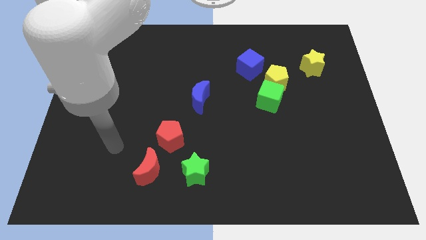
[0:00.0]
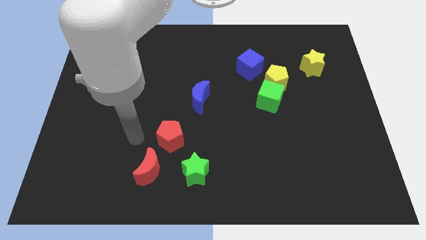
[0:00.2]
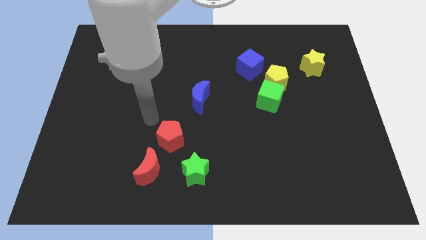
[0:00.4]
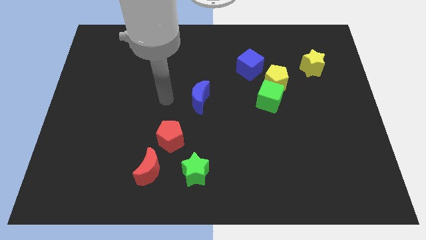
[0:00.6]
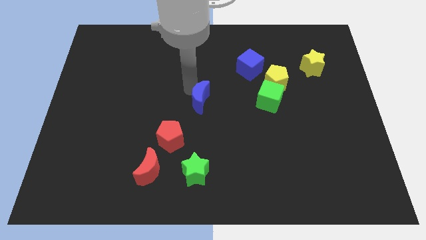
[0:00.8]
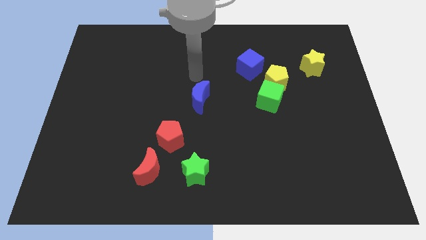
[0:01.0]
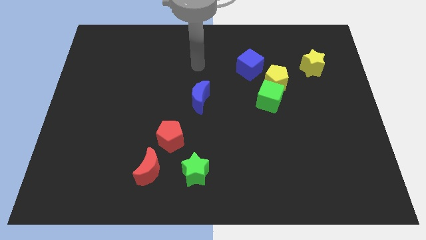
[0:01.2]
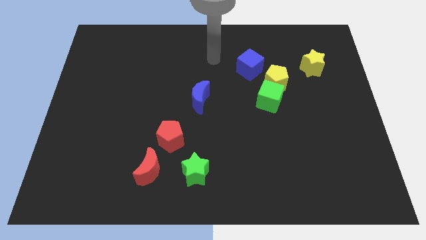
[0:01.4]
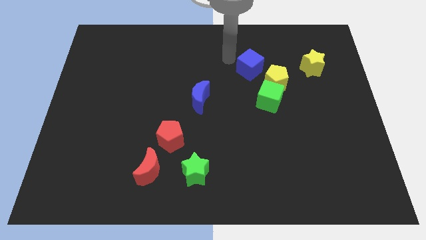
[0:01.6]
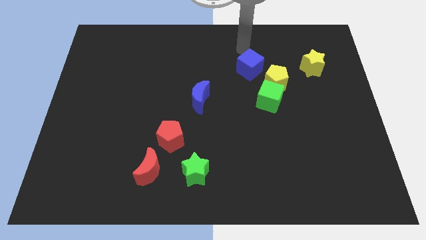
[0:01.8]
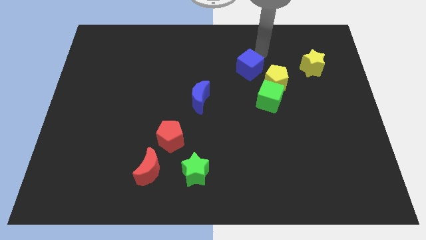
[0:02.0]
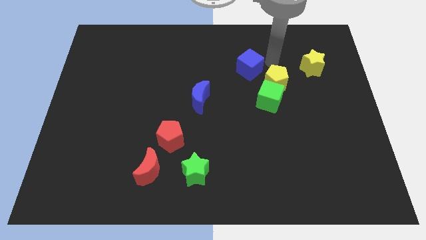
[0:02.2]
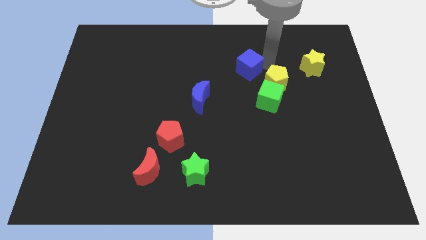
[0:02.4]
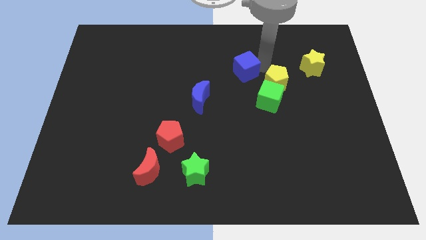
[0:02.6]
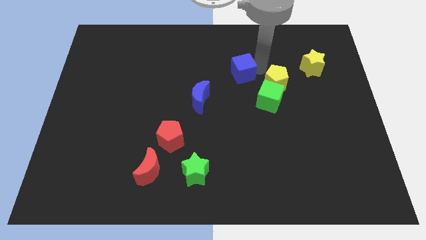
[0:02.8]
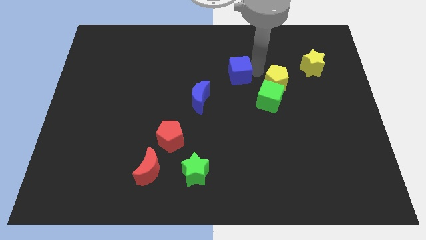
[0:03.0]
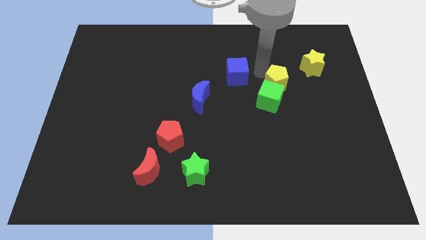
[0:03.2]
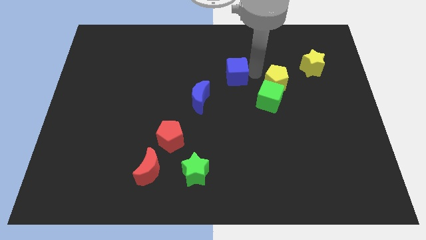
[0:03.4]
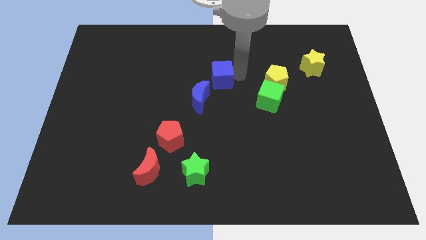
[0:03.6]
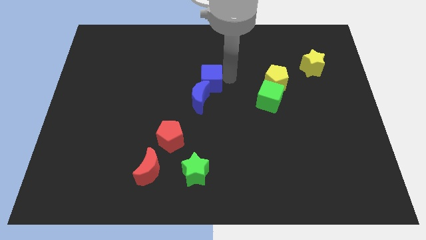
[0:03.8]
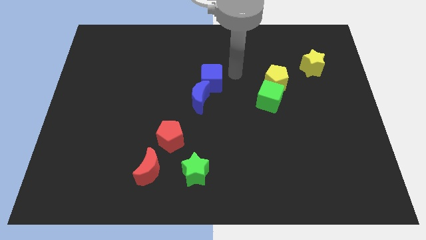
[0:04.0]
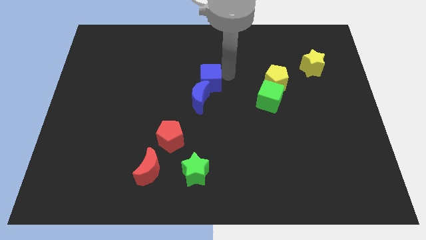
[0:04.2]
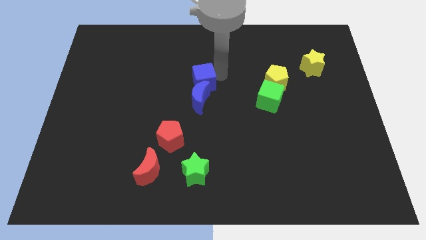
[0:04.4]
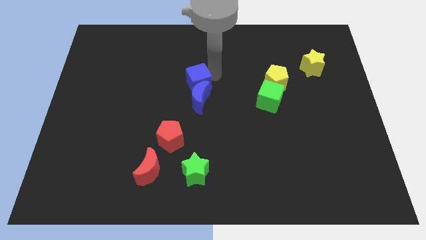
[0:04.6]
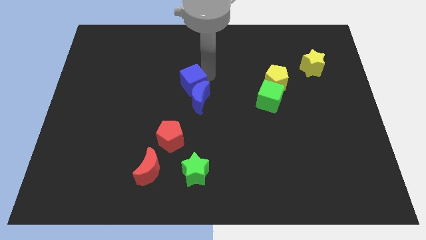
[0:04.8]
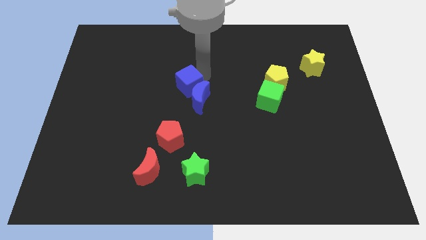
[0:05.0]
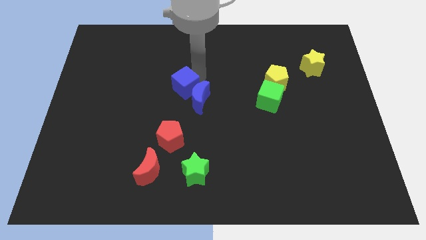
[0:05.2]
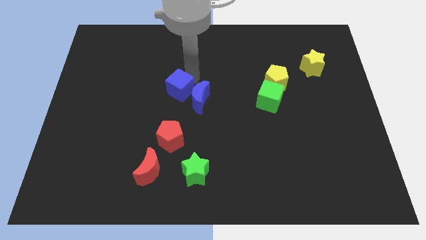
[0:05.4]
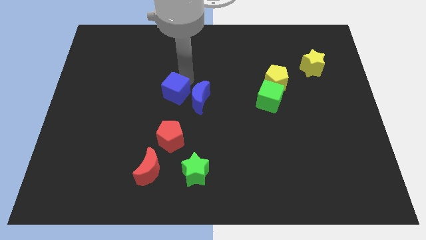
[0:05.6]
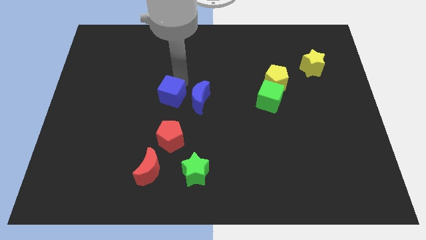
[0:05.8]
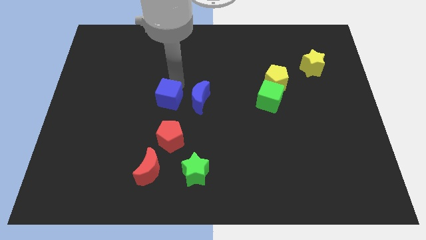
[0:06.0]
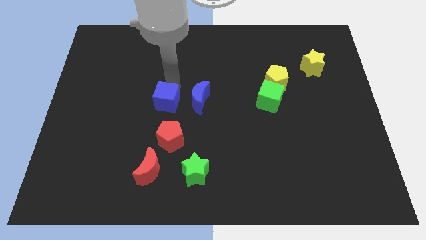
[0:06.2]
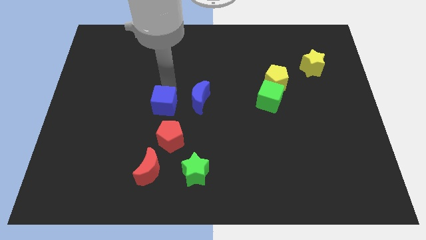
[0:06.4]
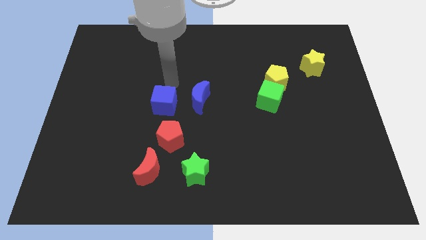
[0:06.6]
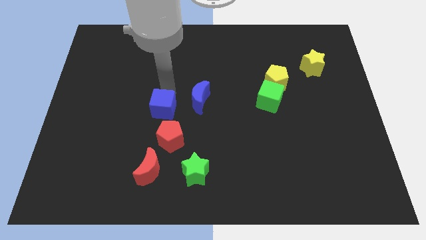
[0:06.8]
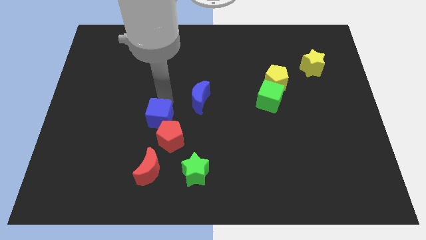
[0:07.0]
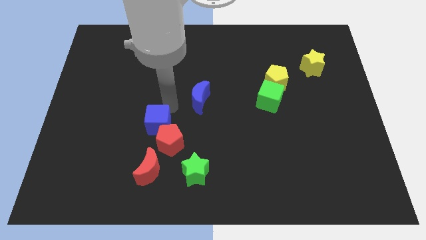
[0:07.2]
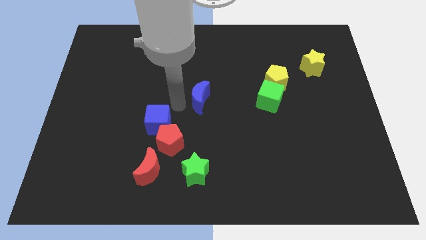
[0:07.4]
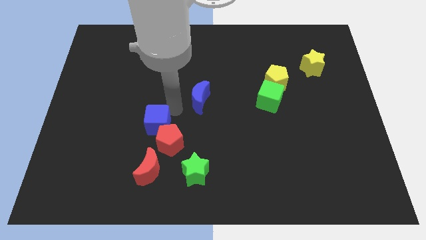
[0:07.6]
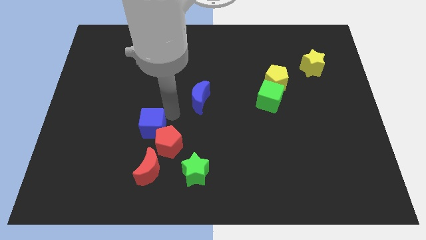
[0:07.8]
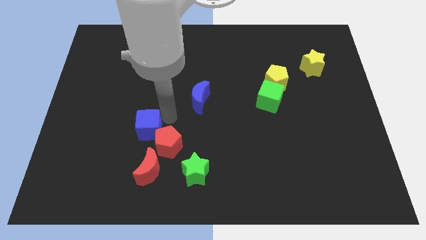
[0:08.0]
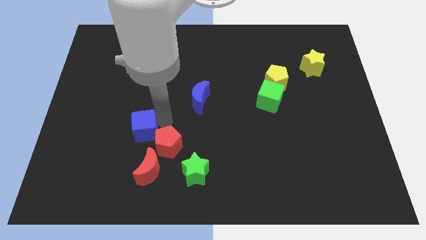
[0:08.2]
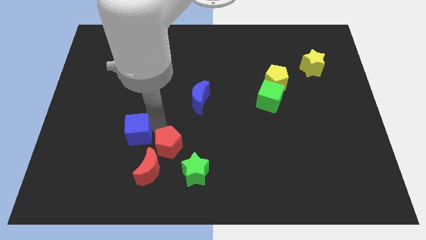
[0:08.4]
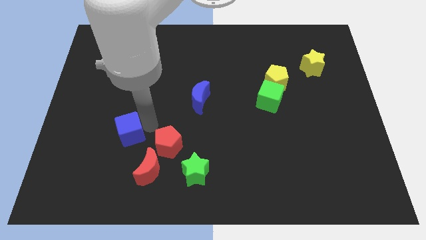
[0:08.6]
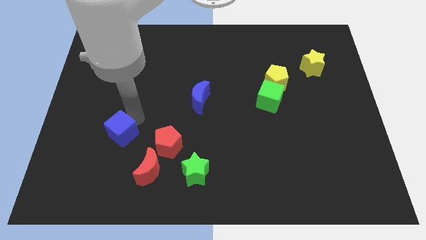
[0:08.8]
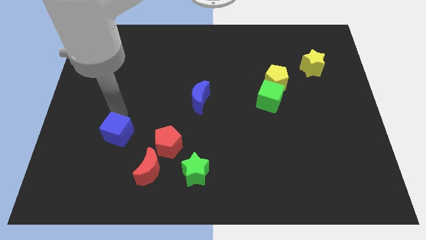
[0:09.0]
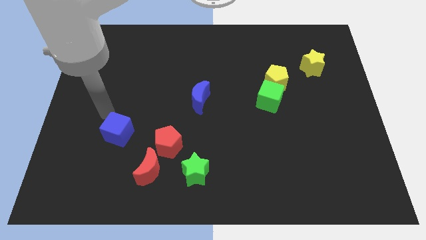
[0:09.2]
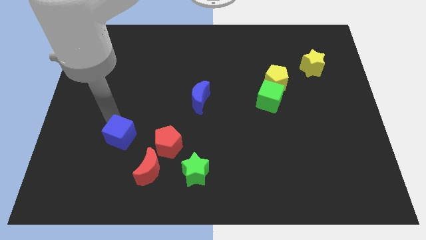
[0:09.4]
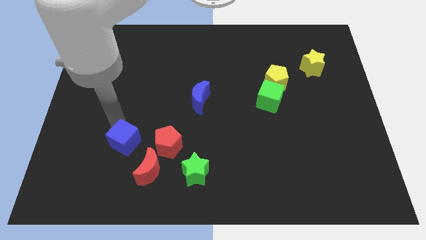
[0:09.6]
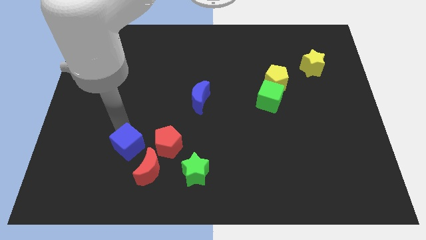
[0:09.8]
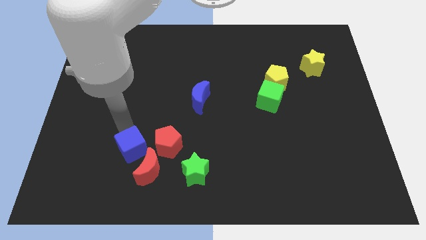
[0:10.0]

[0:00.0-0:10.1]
put the blue cube to the bottom left of the red pentagon

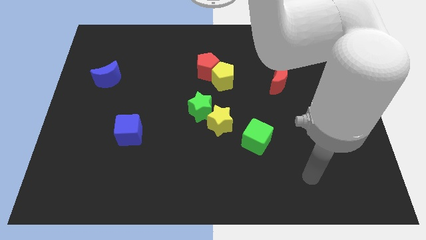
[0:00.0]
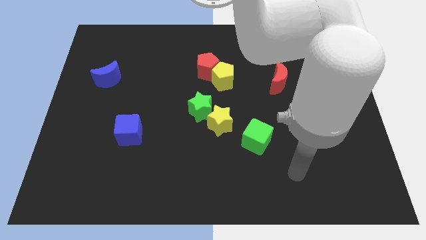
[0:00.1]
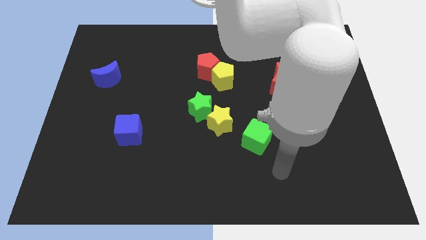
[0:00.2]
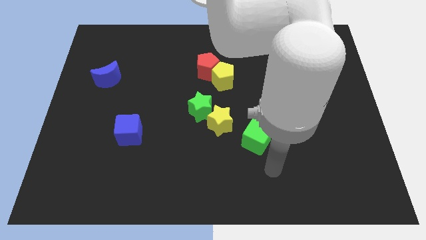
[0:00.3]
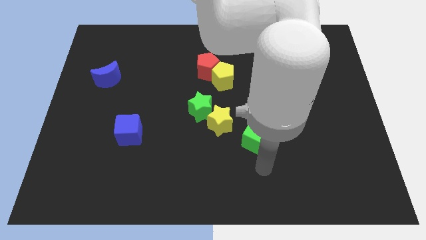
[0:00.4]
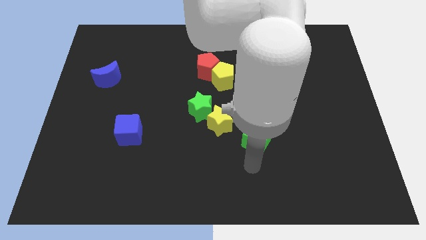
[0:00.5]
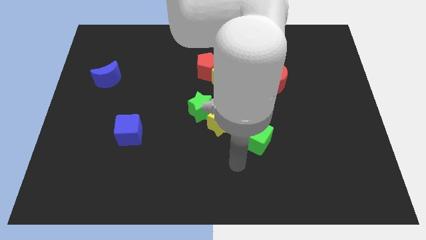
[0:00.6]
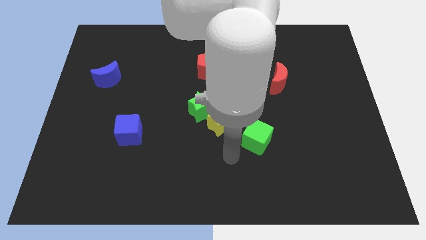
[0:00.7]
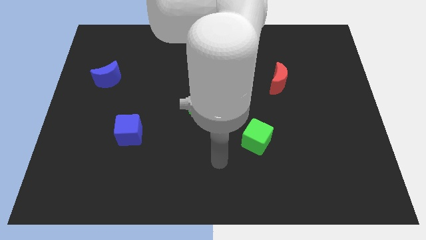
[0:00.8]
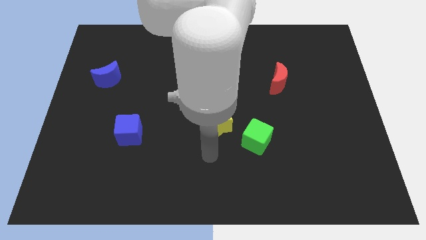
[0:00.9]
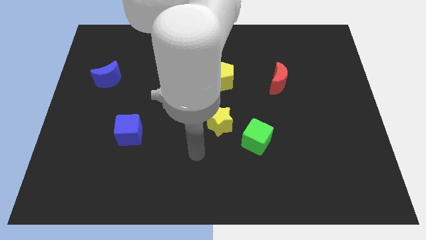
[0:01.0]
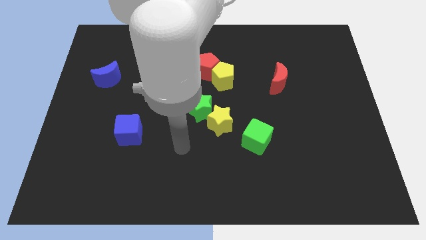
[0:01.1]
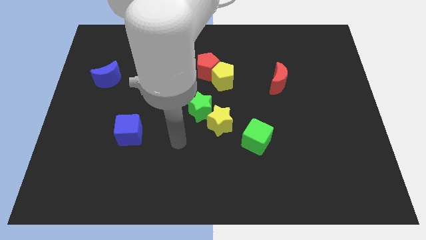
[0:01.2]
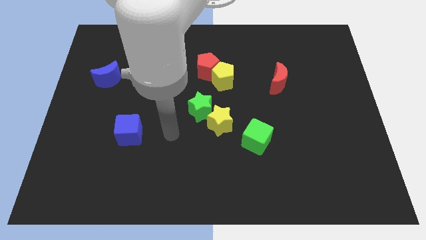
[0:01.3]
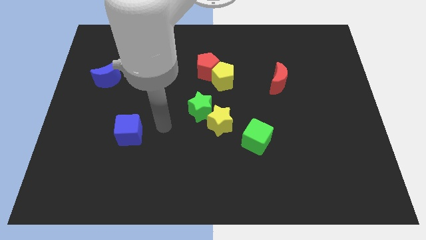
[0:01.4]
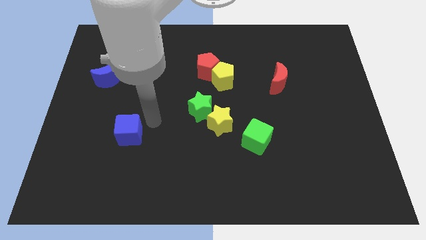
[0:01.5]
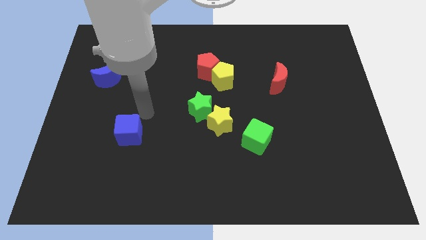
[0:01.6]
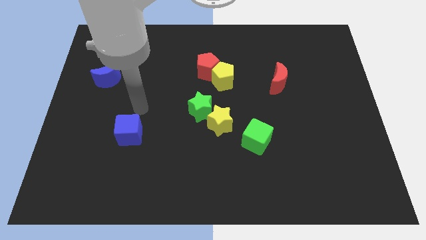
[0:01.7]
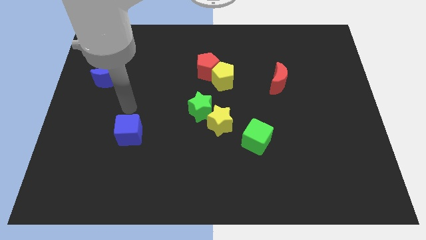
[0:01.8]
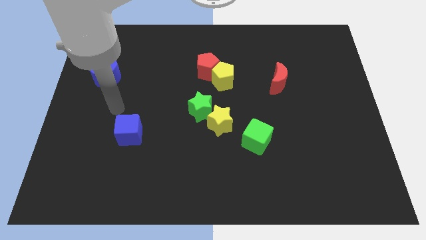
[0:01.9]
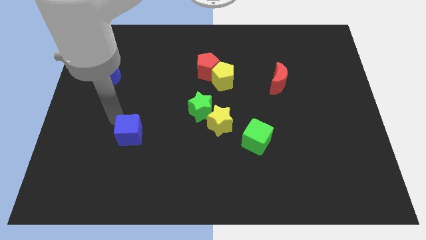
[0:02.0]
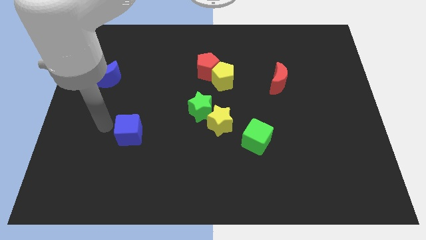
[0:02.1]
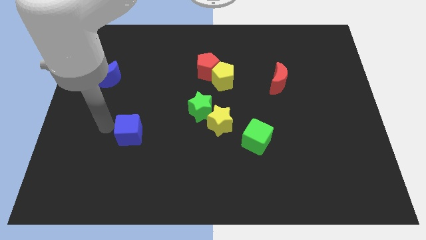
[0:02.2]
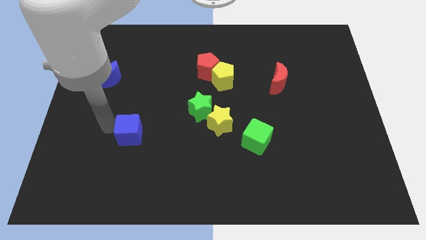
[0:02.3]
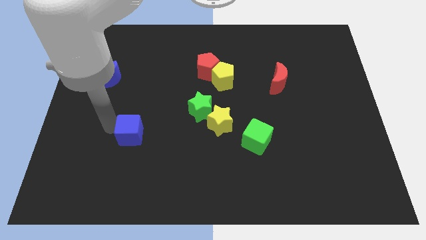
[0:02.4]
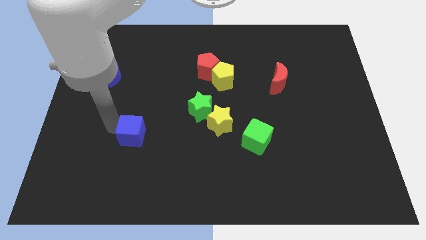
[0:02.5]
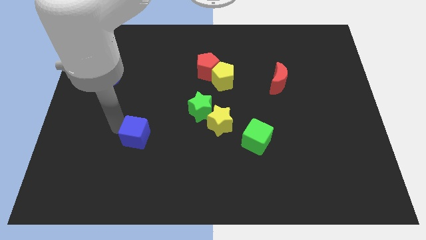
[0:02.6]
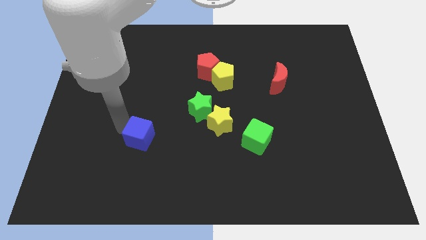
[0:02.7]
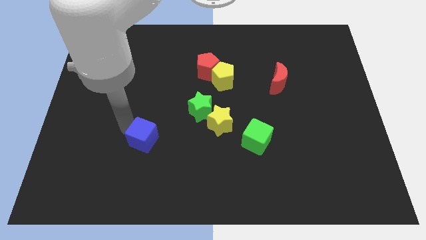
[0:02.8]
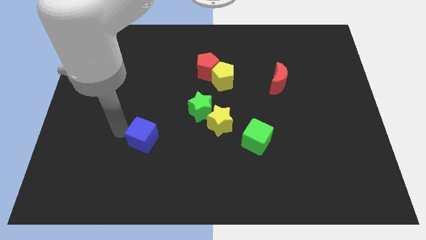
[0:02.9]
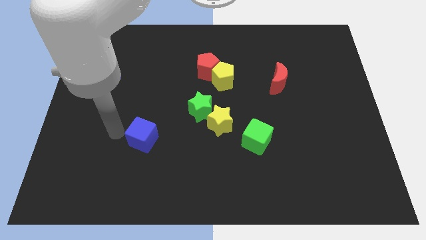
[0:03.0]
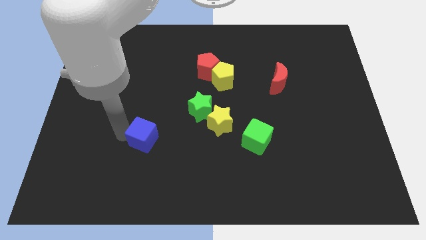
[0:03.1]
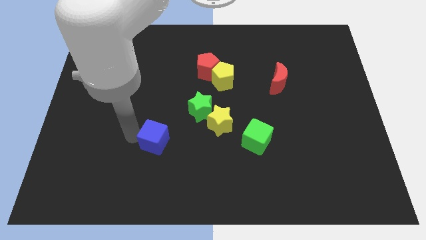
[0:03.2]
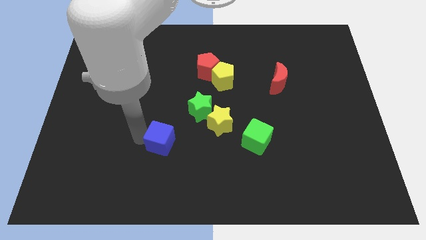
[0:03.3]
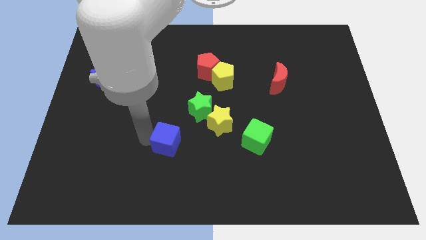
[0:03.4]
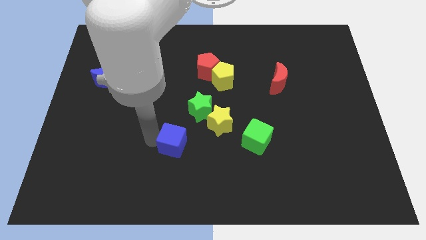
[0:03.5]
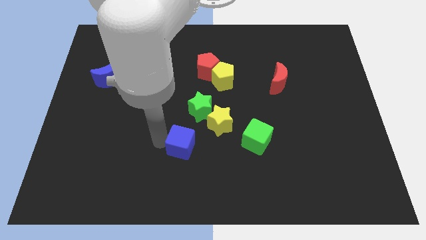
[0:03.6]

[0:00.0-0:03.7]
push the blue cube to the bottom side of the green star
